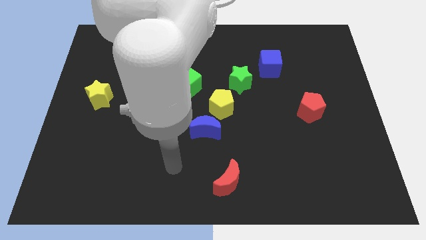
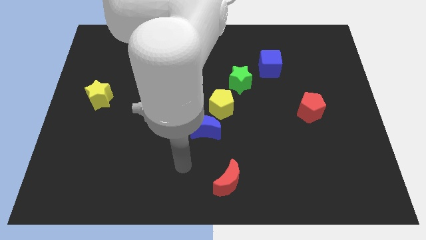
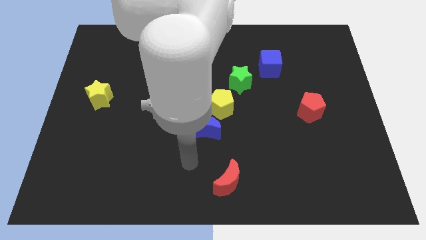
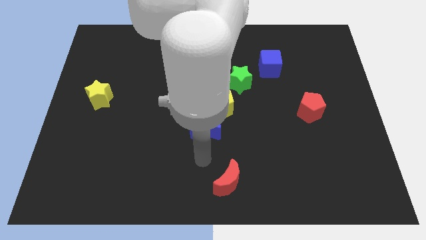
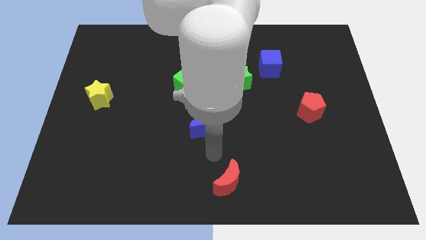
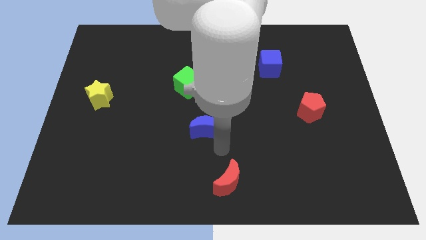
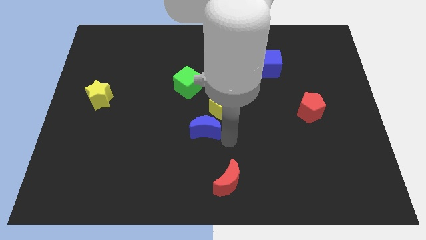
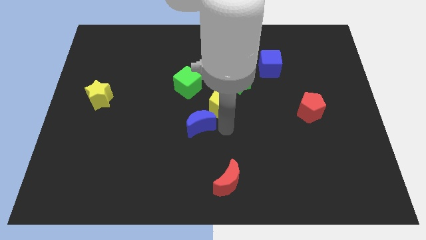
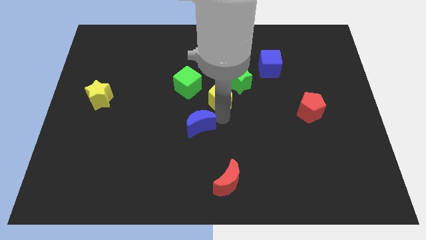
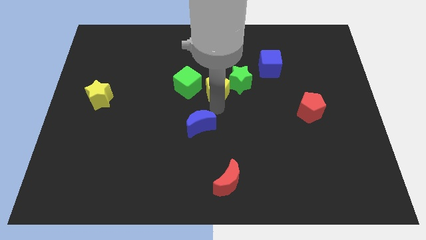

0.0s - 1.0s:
move the blue moon away from the yellow pentagon

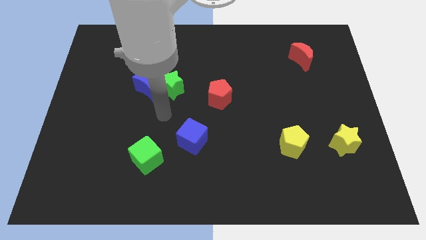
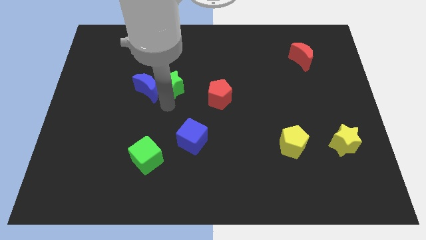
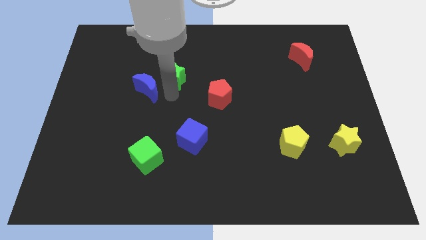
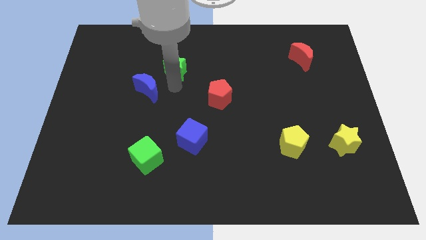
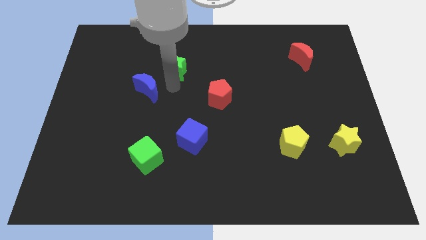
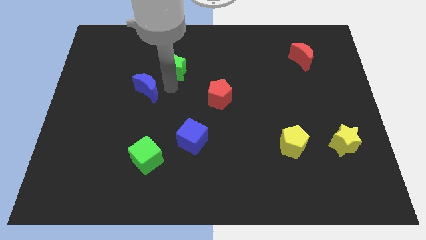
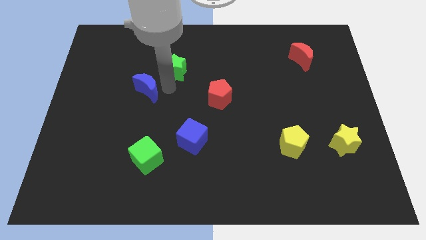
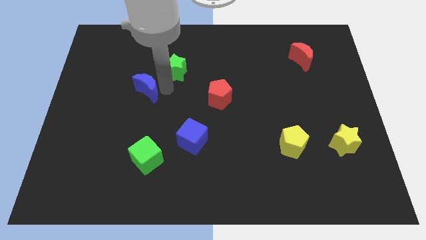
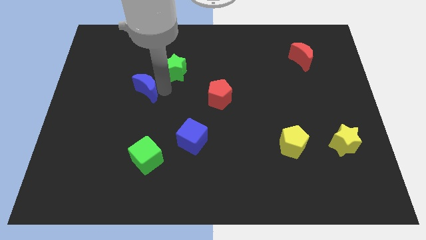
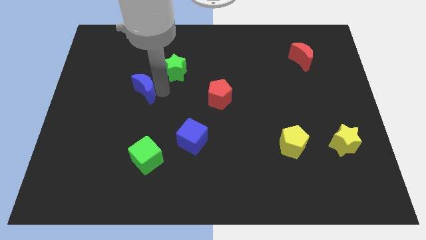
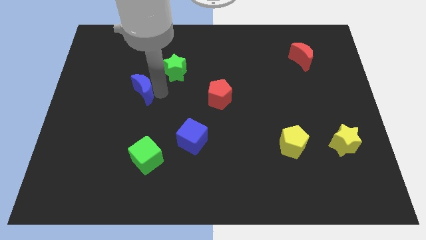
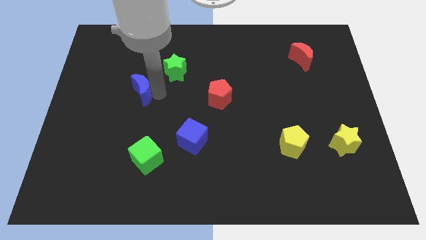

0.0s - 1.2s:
separate the blue moon from the green star

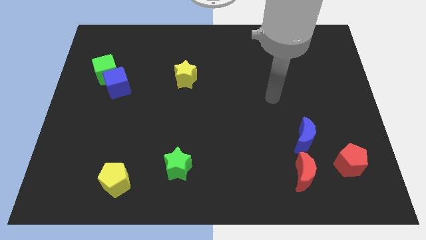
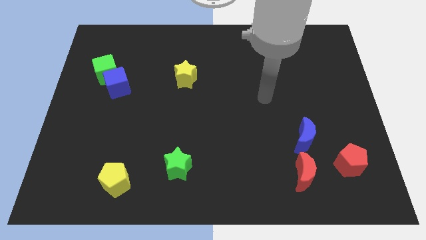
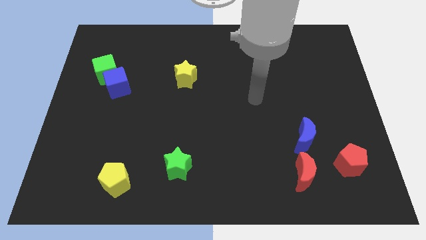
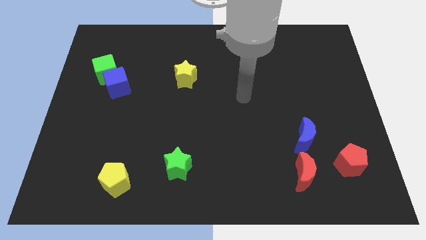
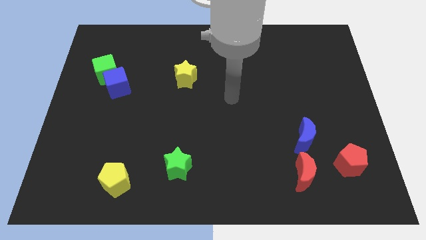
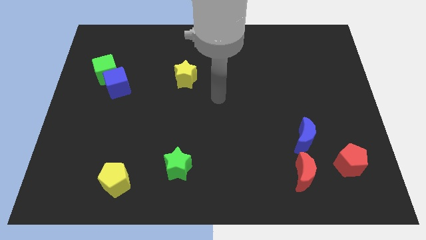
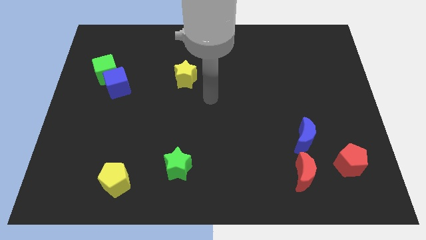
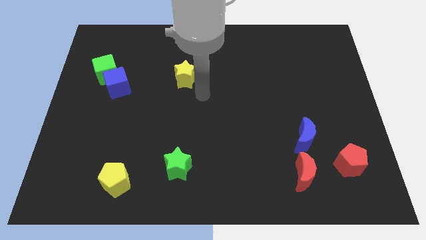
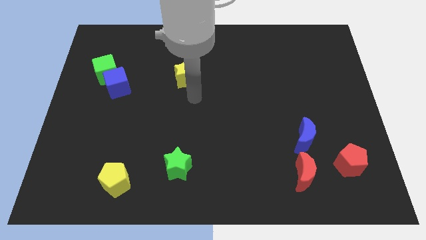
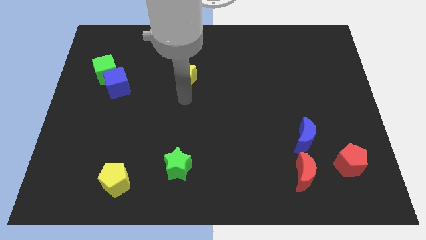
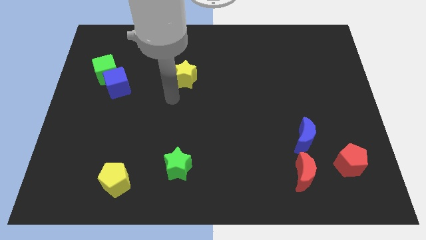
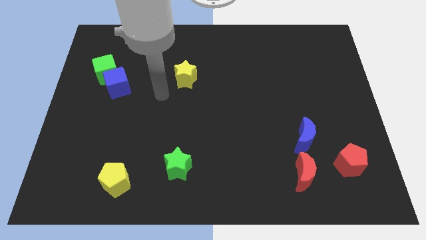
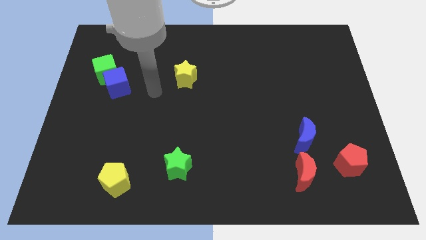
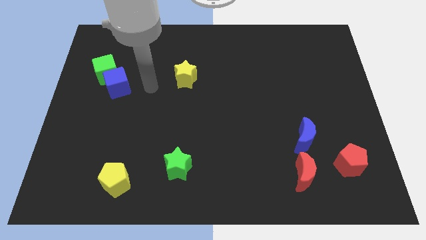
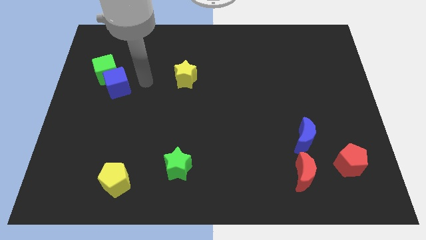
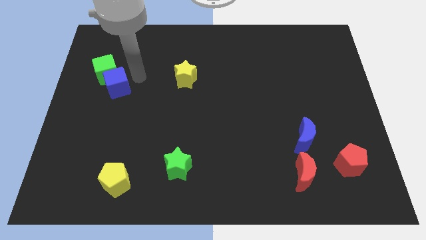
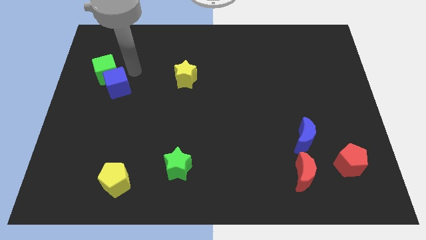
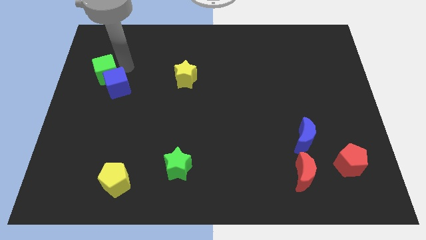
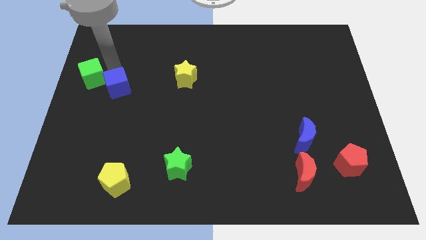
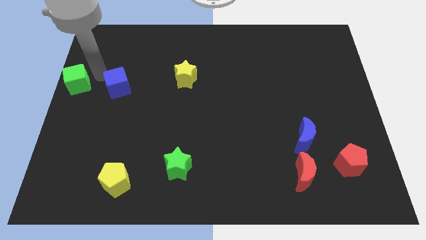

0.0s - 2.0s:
separate the blue cube from the green cube

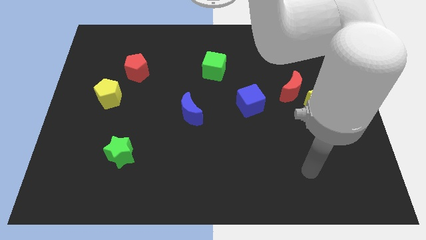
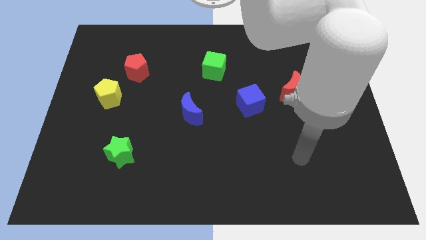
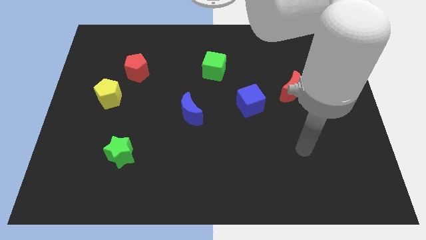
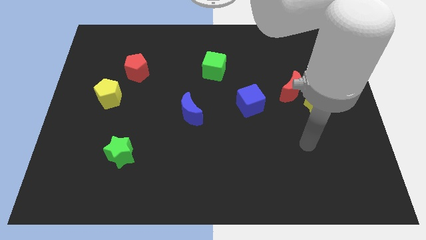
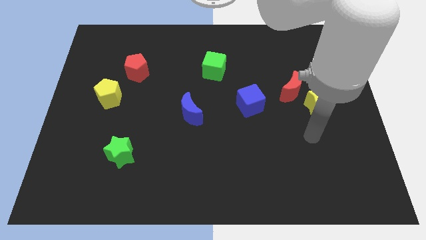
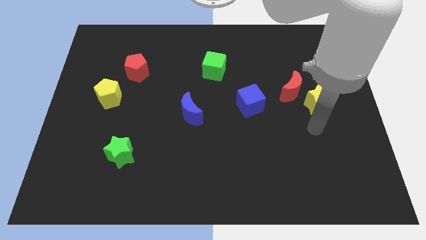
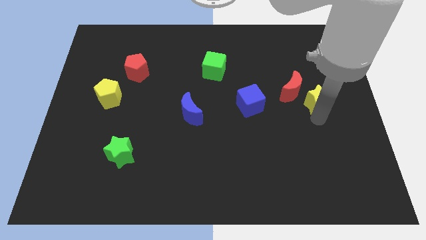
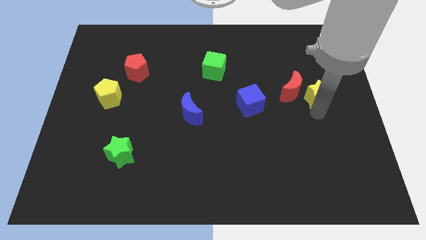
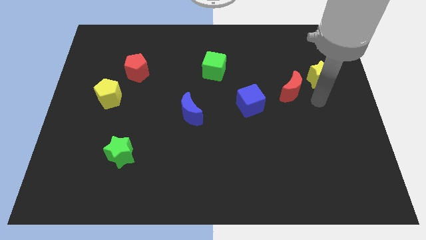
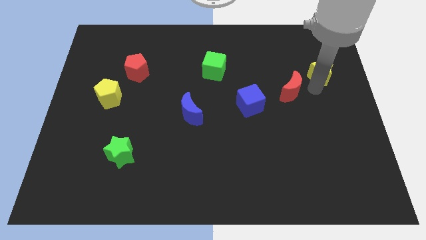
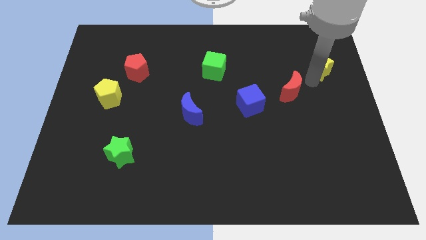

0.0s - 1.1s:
pull the red moon apart from the yellow star

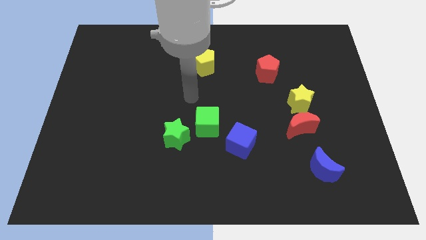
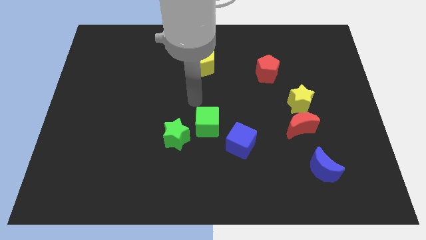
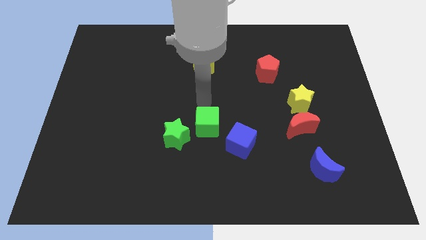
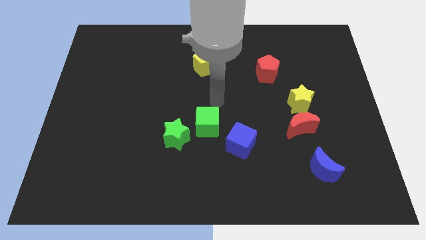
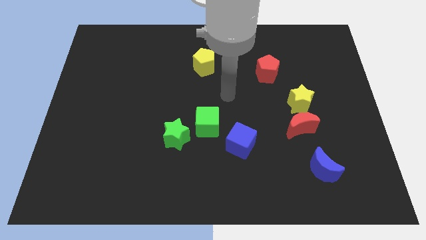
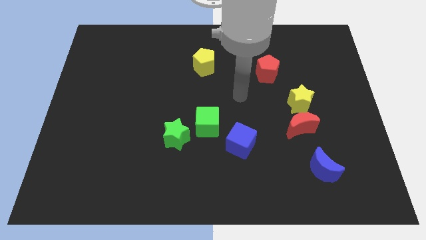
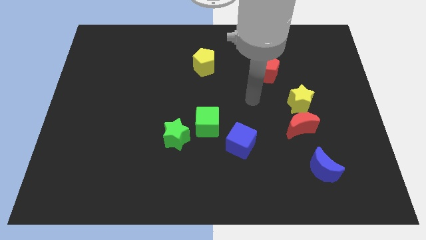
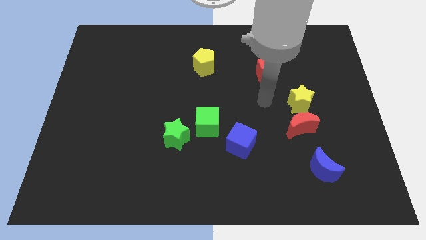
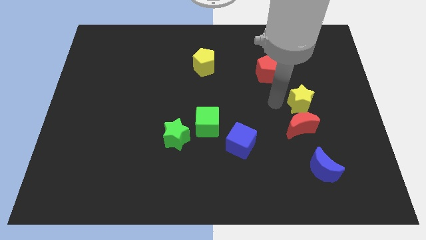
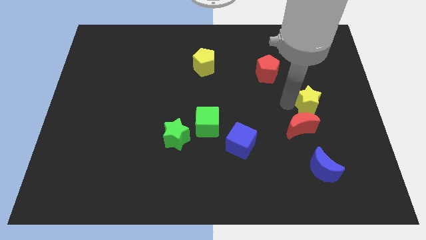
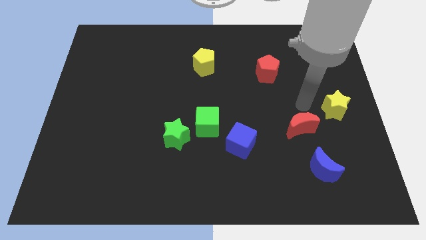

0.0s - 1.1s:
separate the red moon from the yellow star

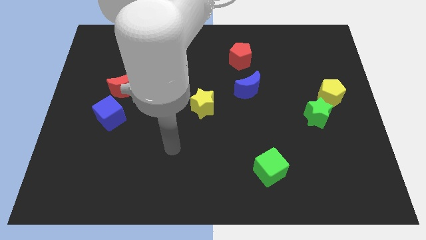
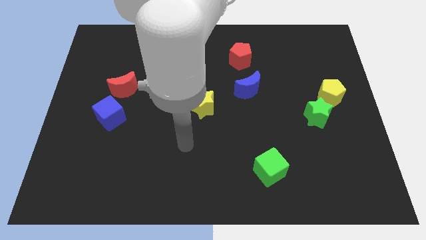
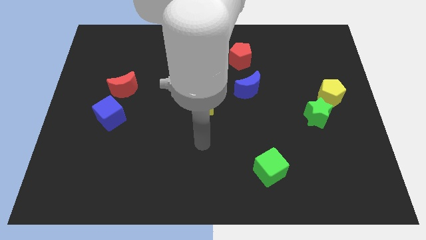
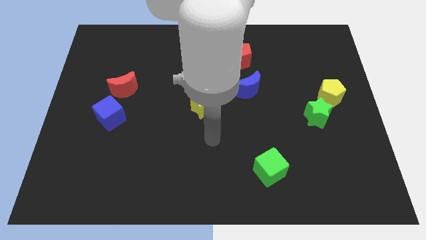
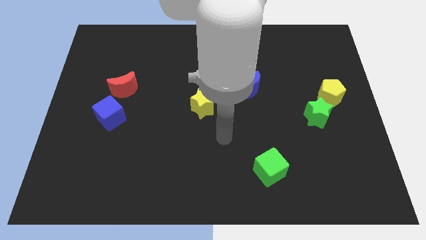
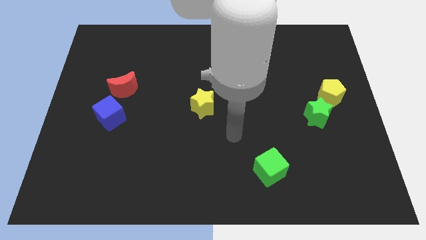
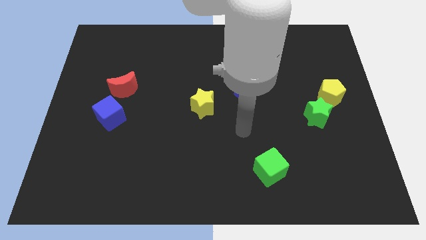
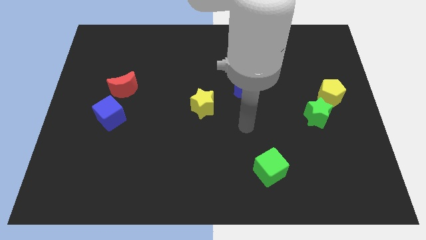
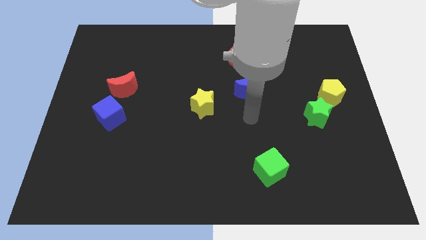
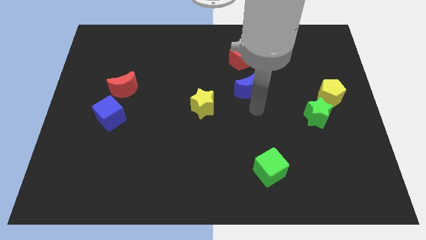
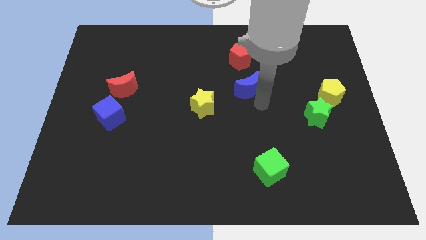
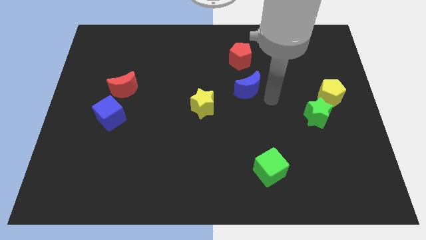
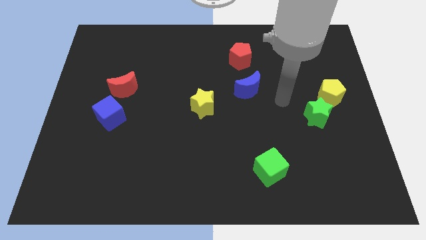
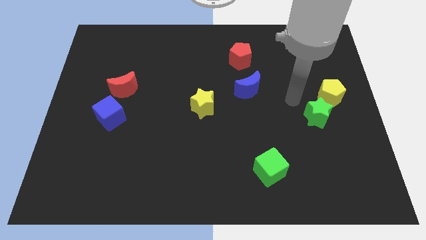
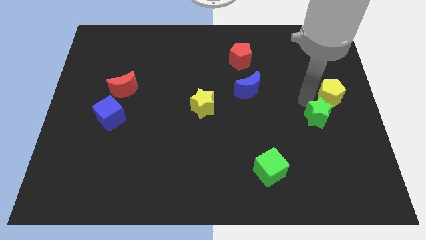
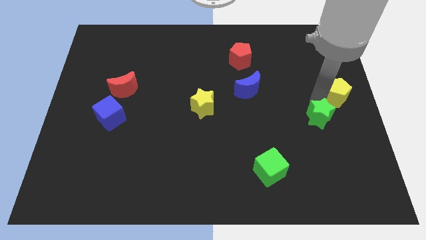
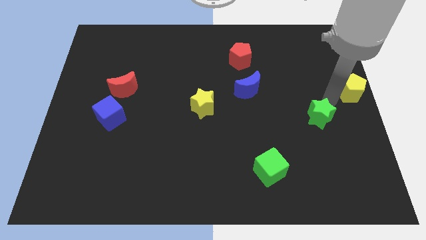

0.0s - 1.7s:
move the green star away from the yellow pentagon

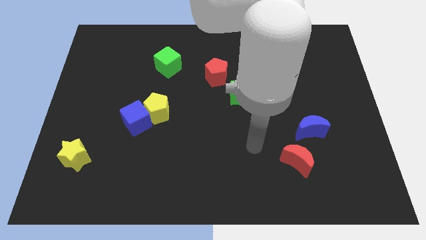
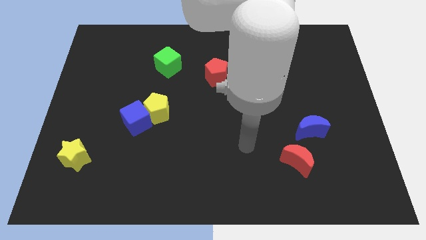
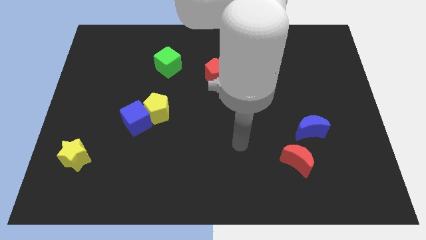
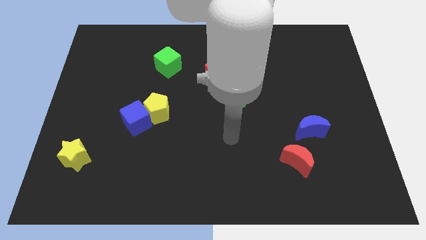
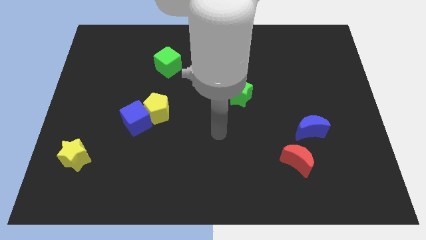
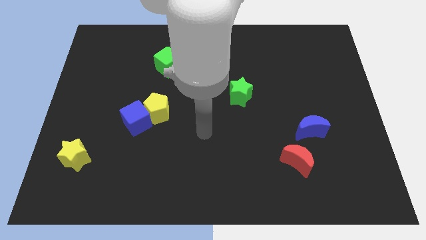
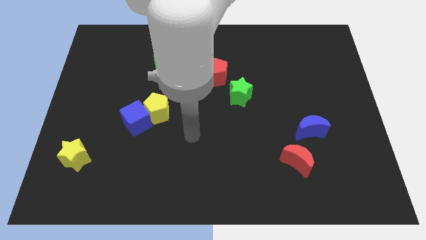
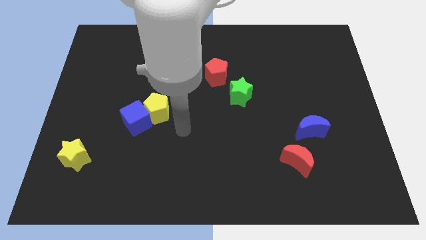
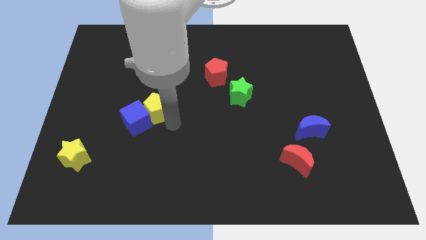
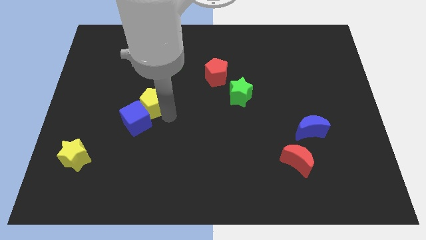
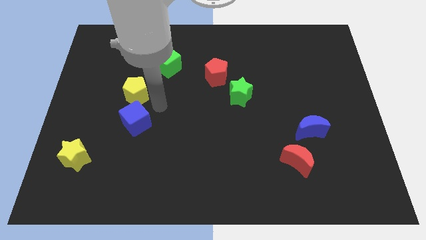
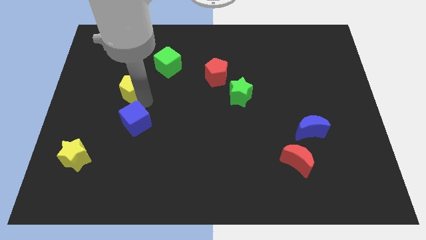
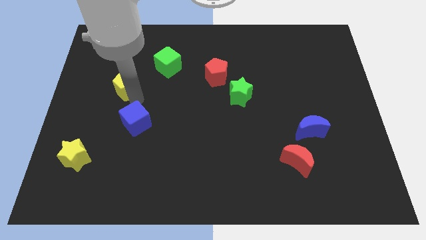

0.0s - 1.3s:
separate the blue cube from the yellow pentagon

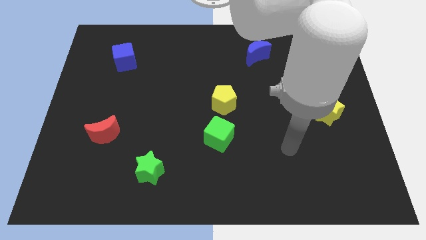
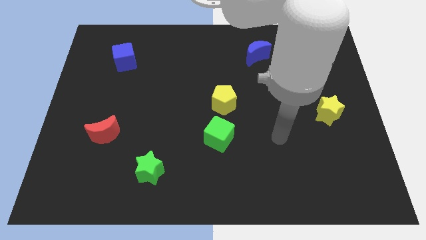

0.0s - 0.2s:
move the green cube away from the yellow pentagon
